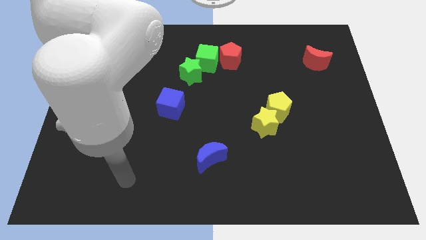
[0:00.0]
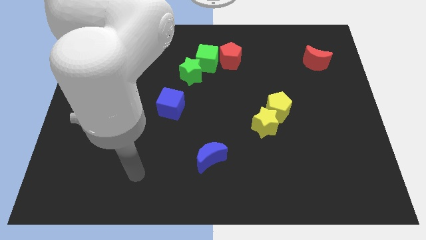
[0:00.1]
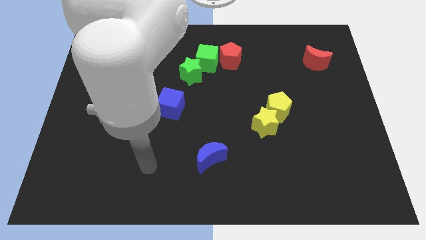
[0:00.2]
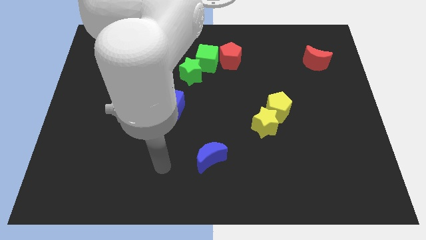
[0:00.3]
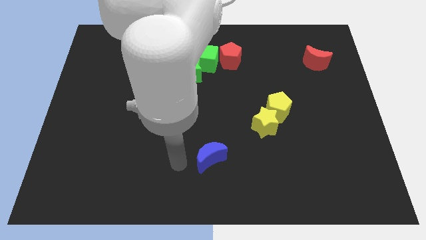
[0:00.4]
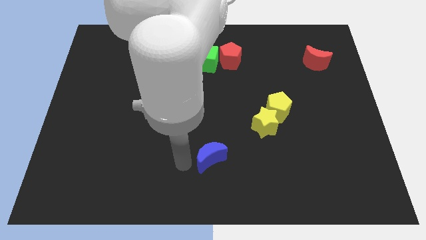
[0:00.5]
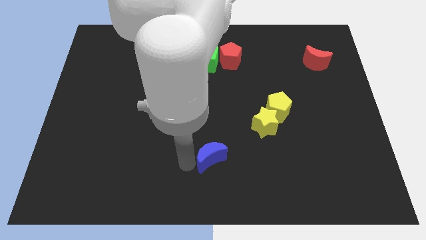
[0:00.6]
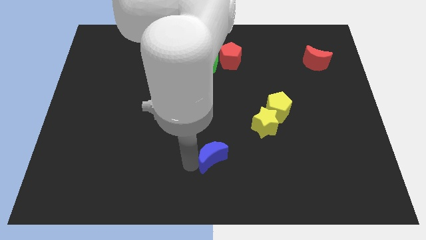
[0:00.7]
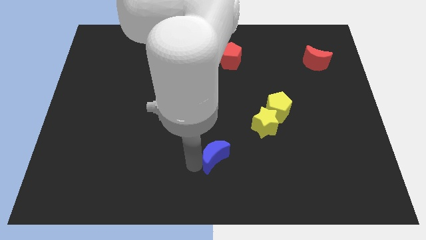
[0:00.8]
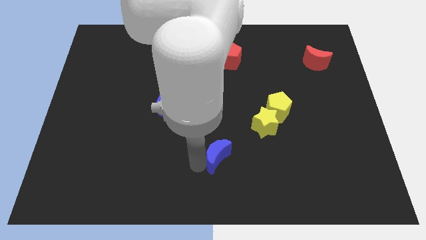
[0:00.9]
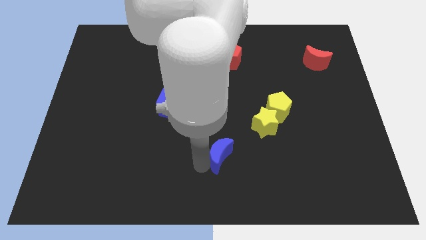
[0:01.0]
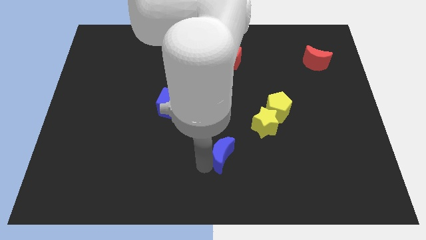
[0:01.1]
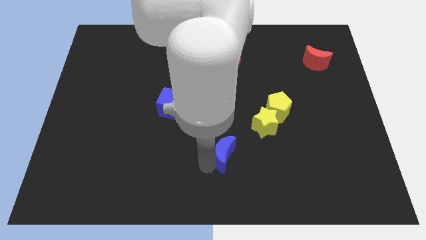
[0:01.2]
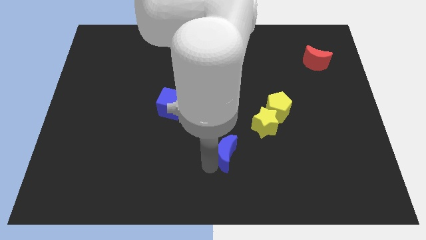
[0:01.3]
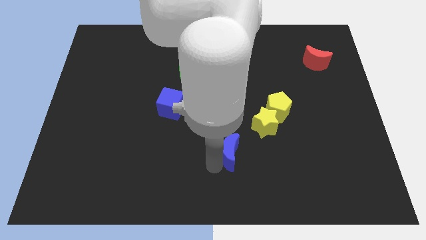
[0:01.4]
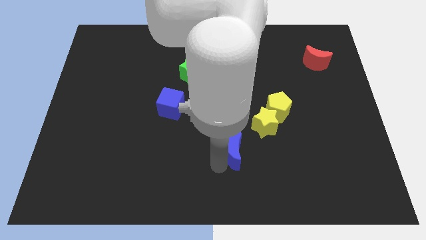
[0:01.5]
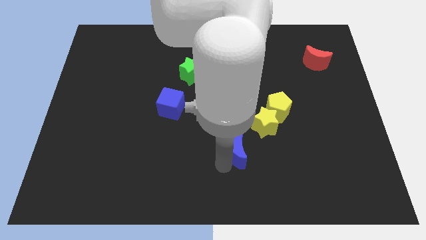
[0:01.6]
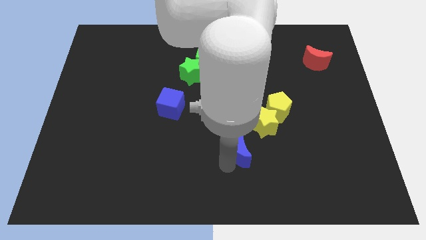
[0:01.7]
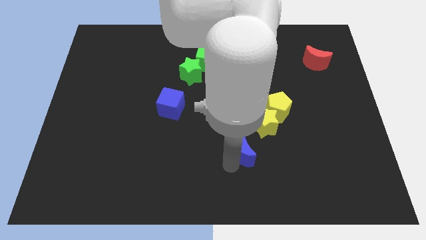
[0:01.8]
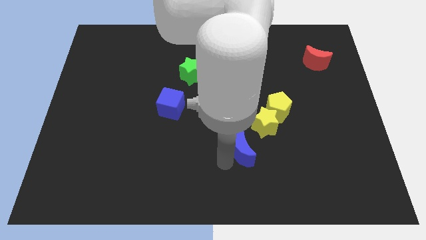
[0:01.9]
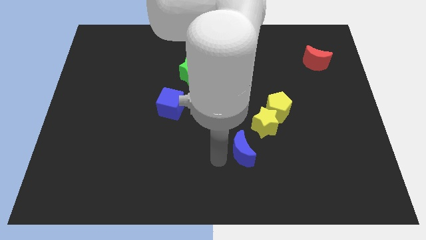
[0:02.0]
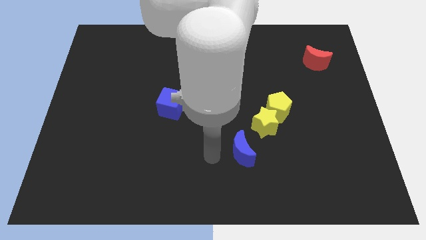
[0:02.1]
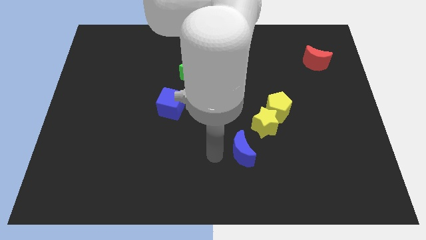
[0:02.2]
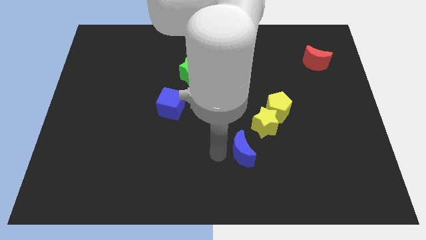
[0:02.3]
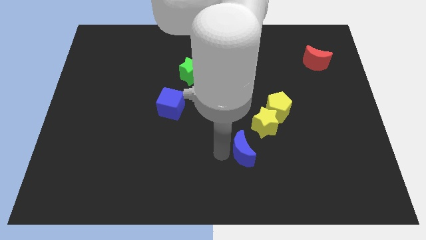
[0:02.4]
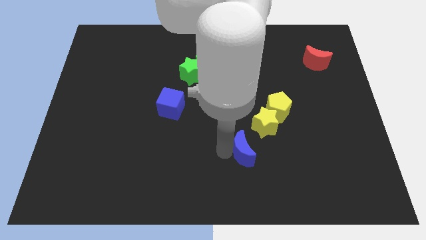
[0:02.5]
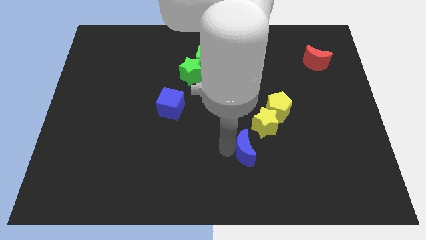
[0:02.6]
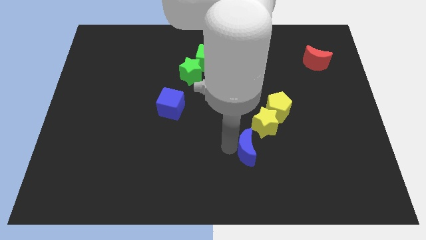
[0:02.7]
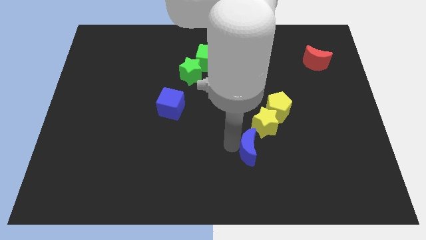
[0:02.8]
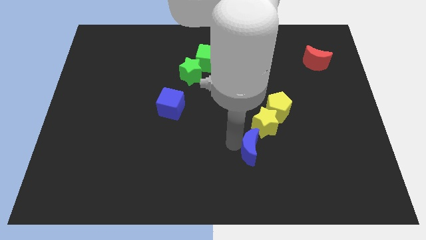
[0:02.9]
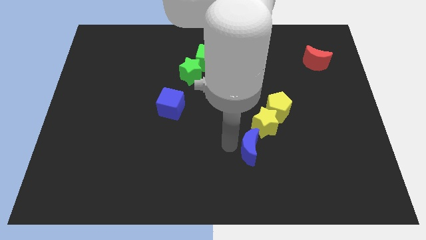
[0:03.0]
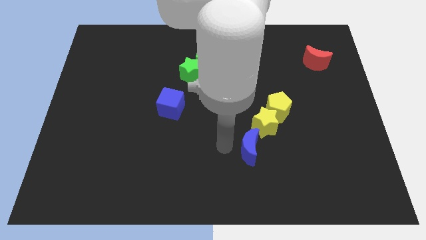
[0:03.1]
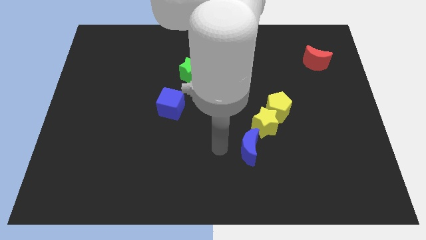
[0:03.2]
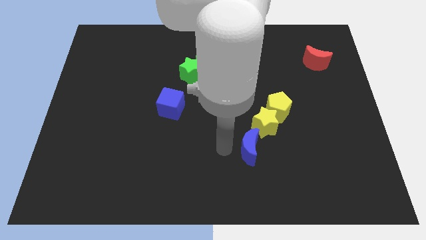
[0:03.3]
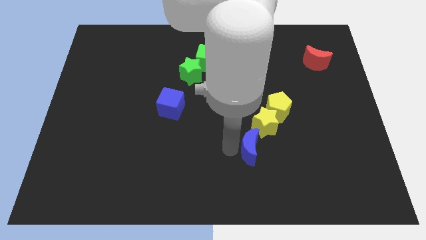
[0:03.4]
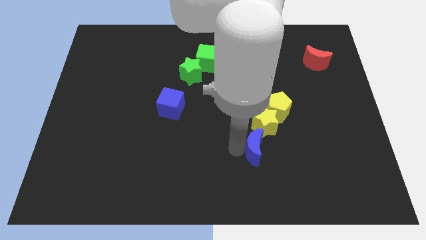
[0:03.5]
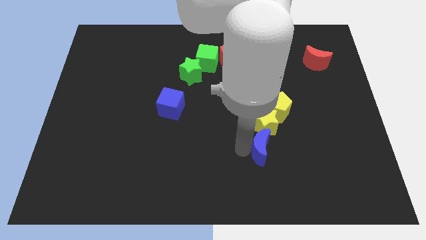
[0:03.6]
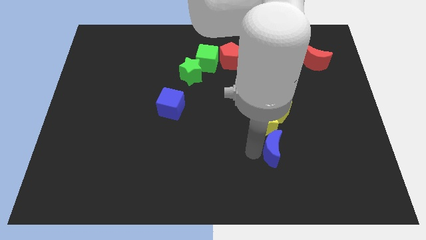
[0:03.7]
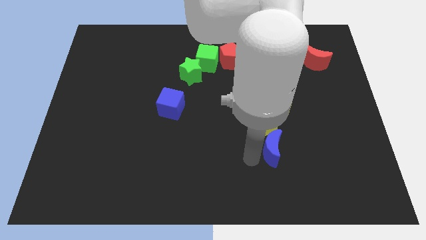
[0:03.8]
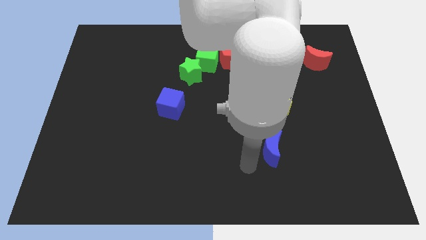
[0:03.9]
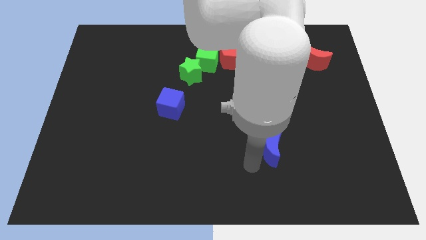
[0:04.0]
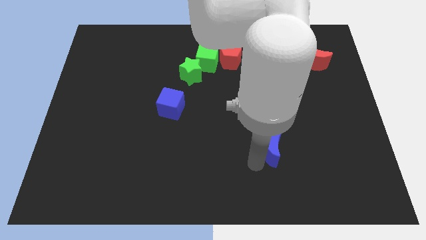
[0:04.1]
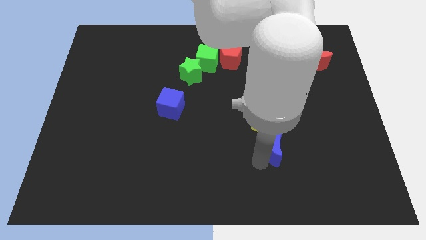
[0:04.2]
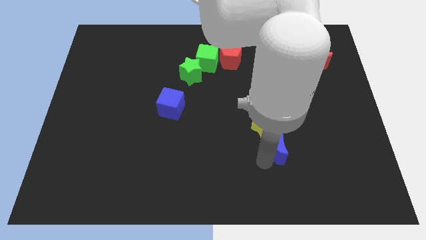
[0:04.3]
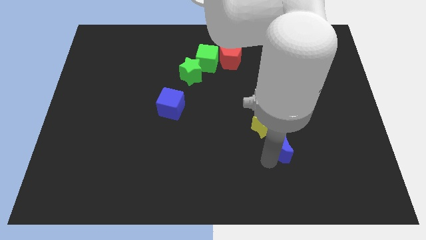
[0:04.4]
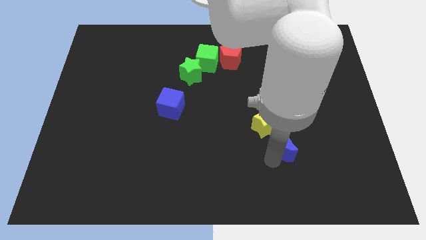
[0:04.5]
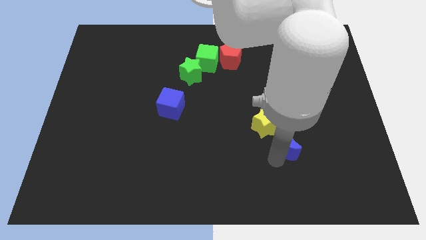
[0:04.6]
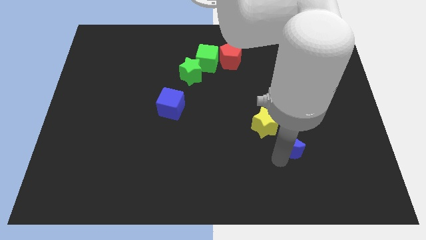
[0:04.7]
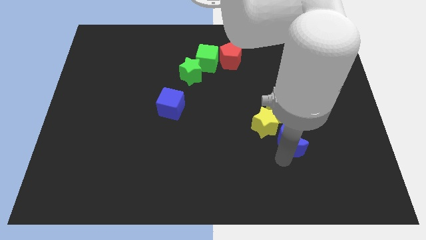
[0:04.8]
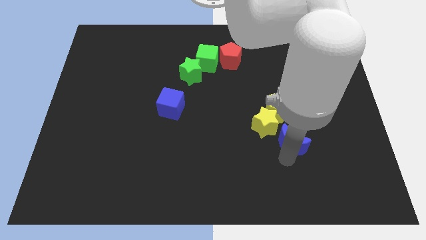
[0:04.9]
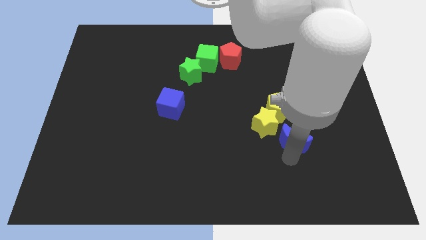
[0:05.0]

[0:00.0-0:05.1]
push the blue moon to the bottom right of the yellow pentagon

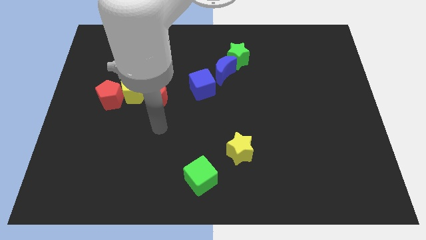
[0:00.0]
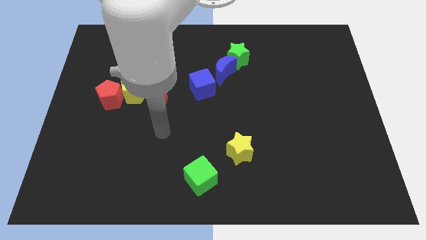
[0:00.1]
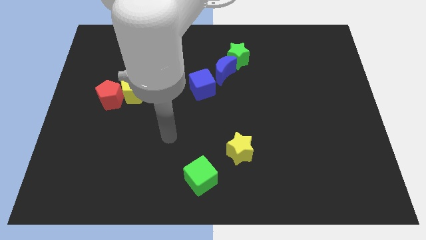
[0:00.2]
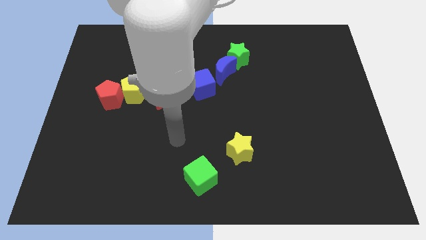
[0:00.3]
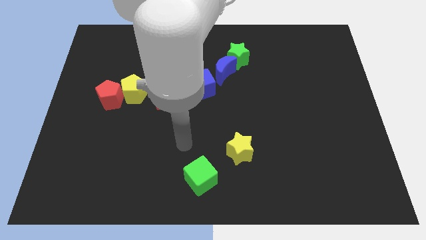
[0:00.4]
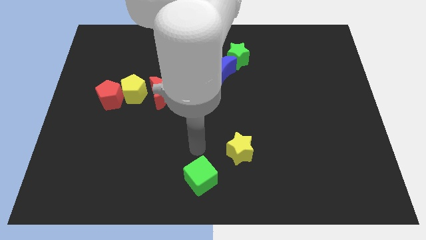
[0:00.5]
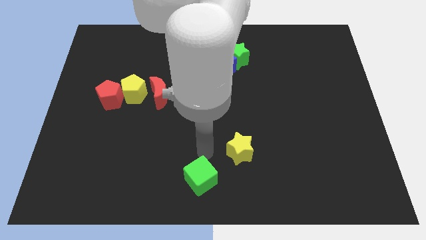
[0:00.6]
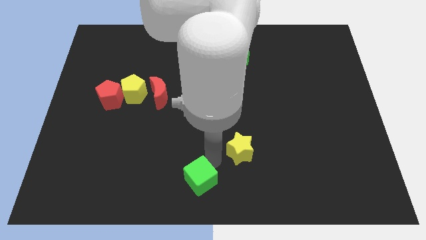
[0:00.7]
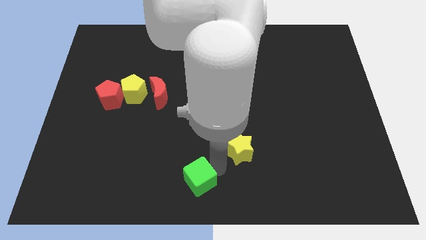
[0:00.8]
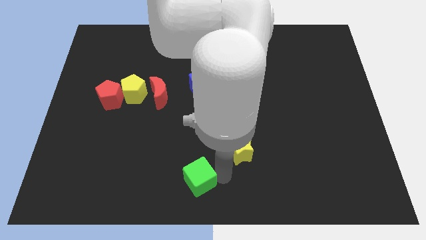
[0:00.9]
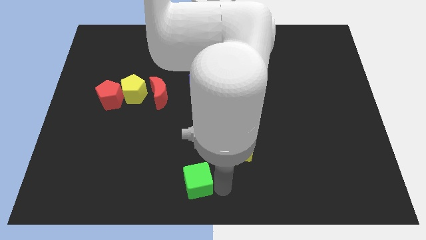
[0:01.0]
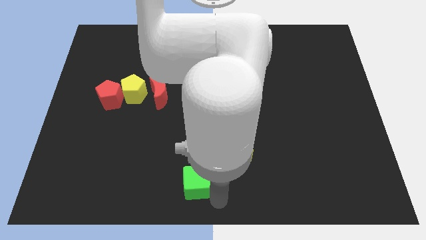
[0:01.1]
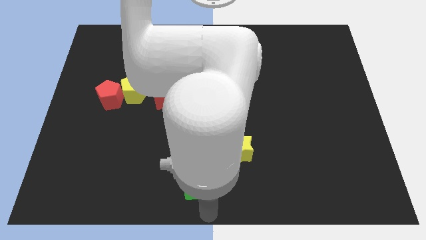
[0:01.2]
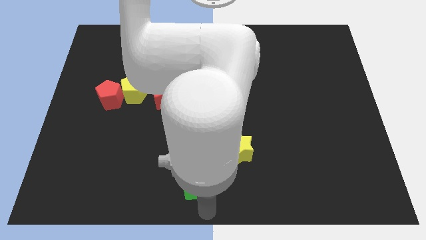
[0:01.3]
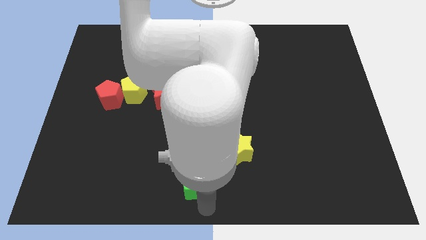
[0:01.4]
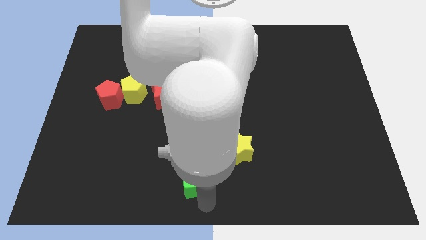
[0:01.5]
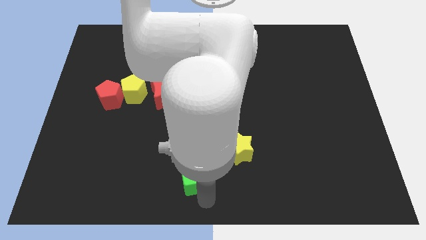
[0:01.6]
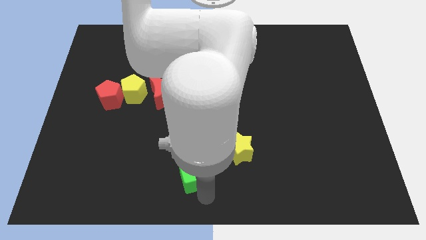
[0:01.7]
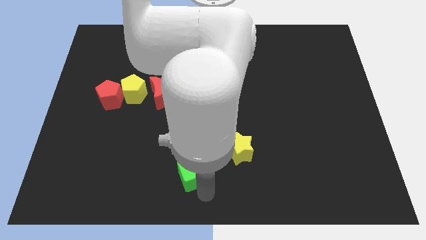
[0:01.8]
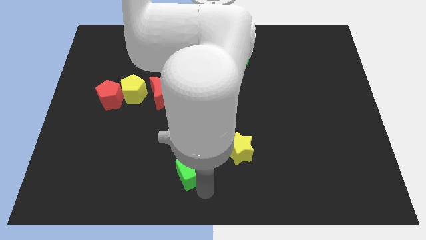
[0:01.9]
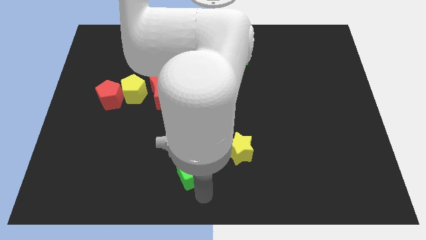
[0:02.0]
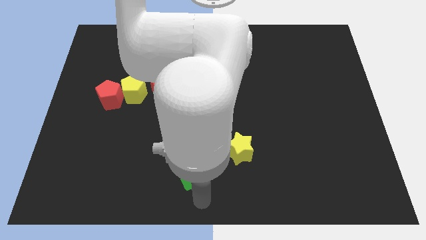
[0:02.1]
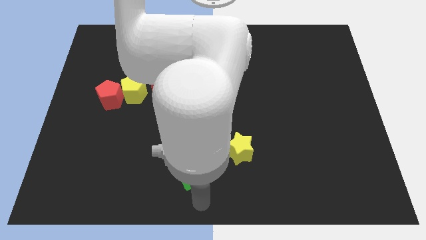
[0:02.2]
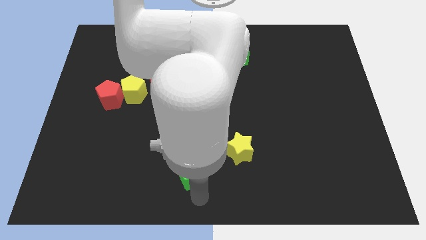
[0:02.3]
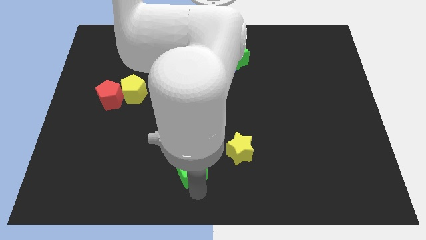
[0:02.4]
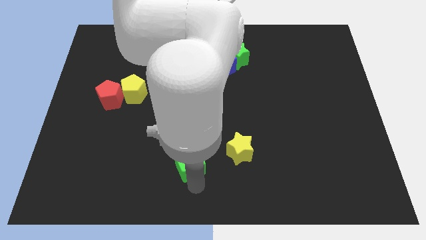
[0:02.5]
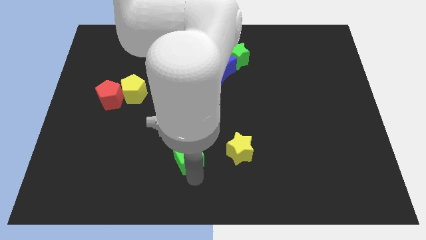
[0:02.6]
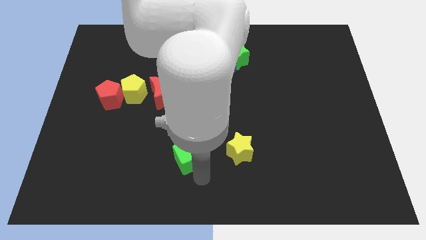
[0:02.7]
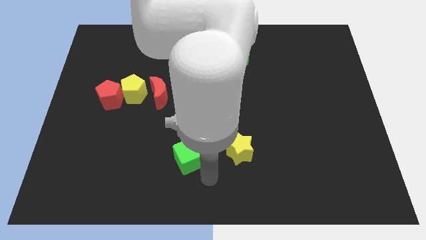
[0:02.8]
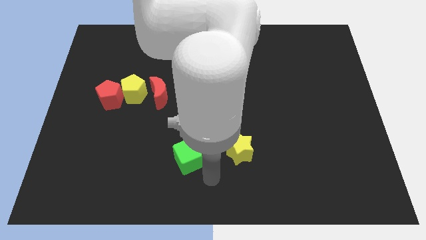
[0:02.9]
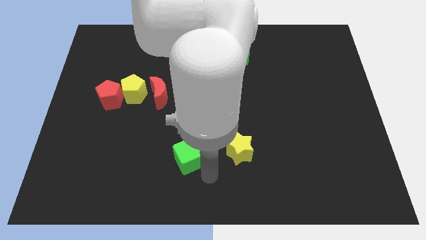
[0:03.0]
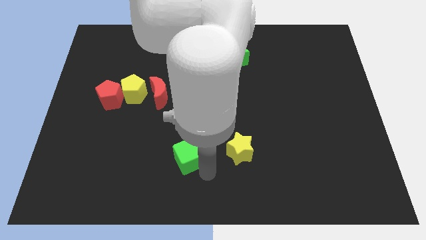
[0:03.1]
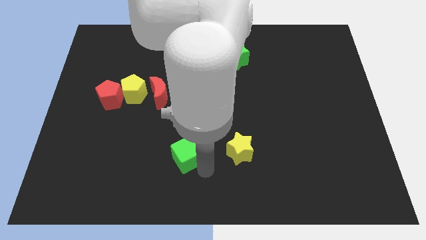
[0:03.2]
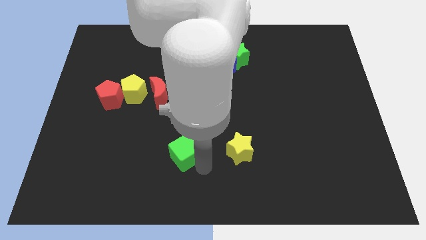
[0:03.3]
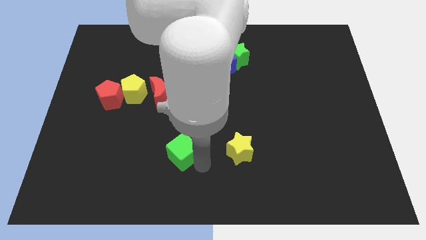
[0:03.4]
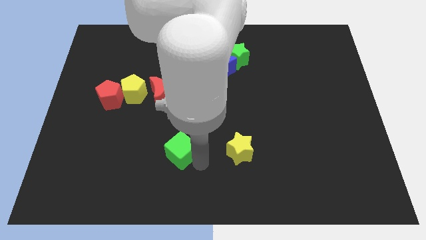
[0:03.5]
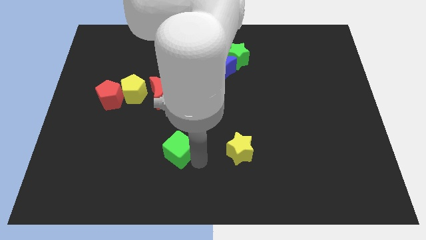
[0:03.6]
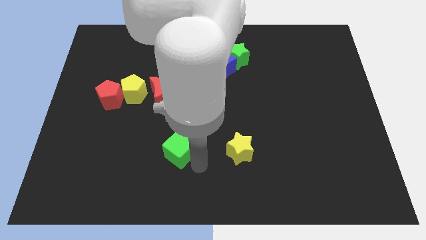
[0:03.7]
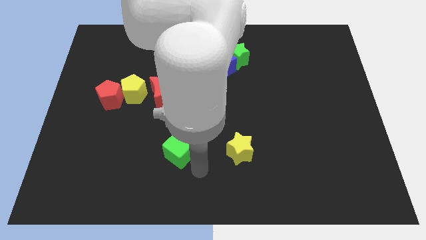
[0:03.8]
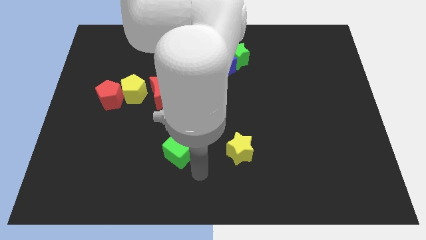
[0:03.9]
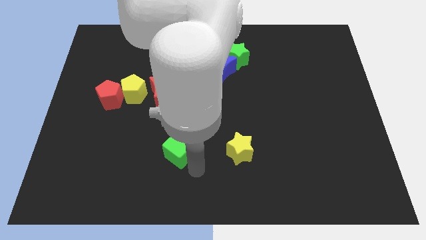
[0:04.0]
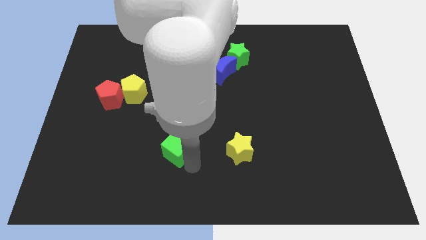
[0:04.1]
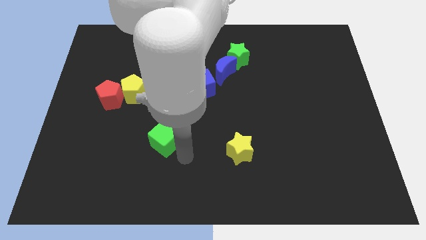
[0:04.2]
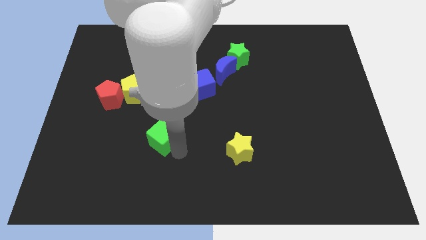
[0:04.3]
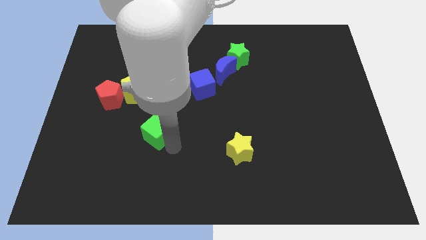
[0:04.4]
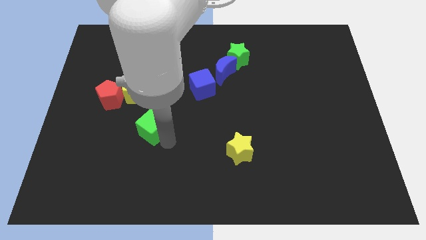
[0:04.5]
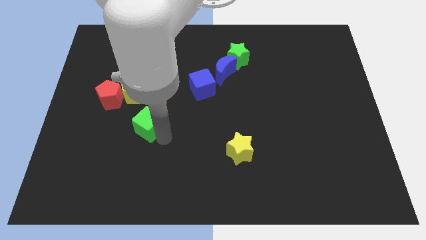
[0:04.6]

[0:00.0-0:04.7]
push the green cube diagonally down and to the right of the red pentagon
